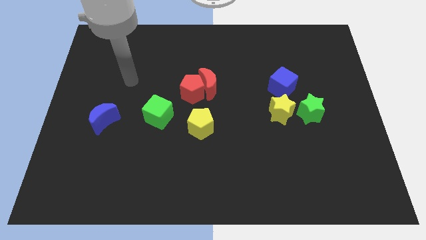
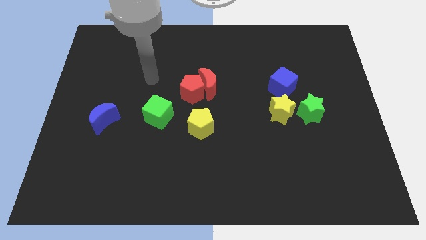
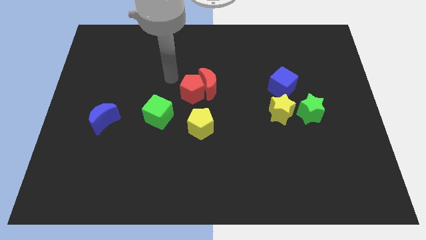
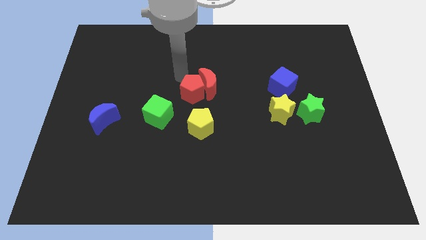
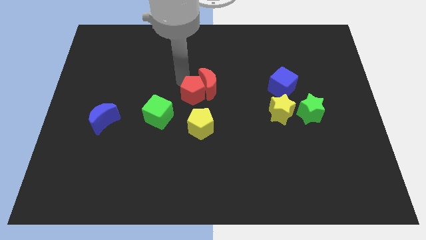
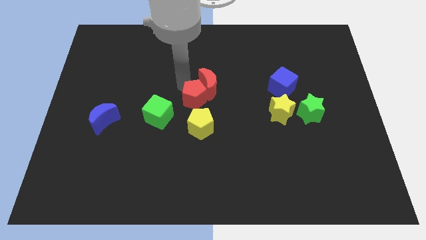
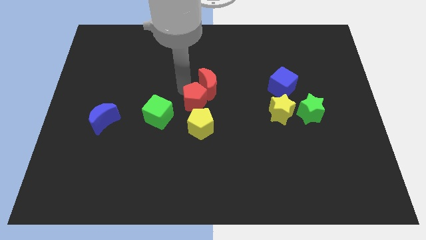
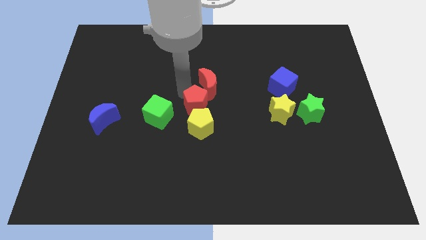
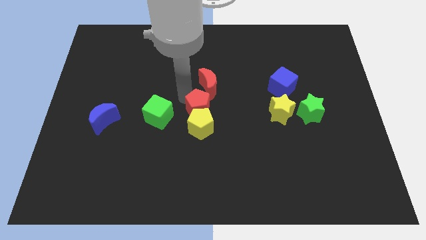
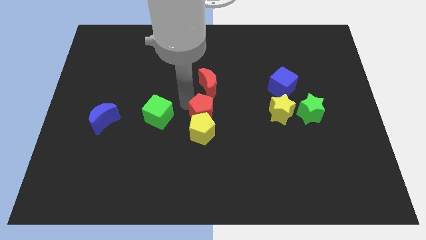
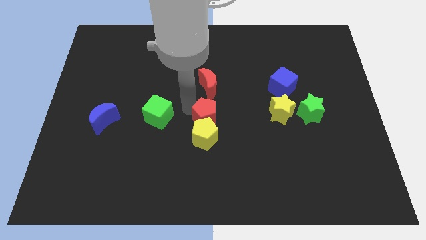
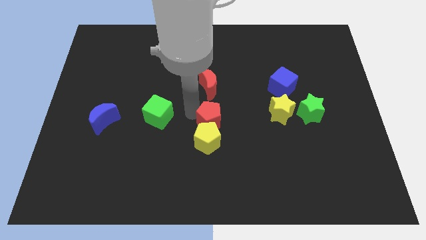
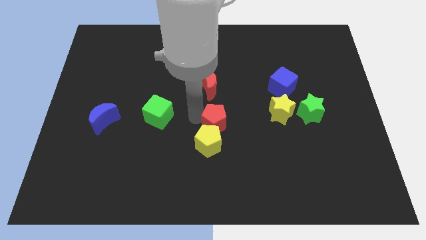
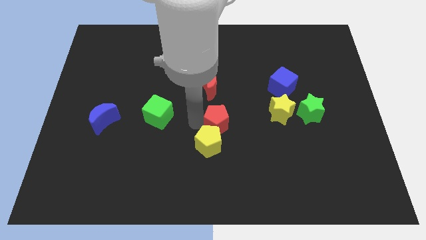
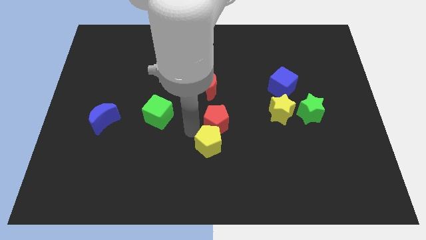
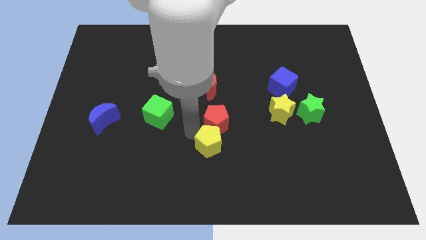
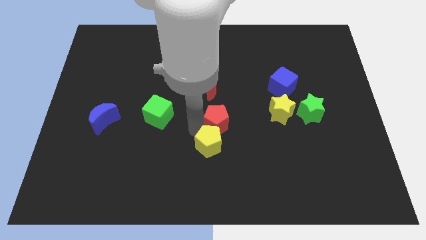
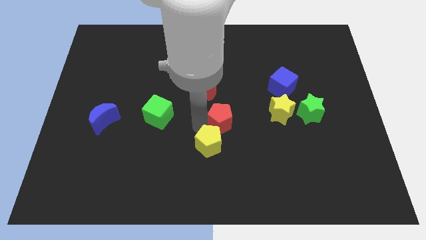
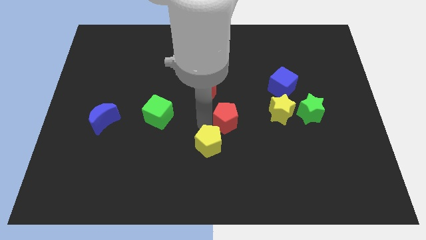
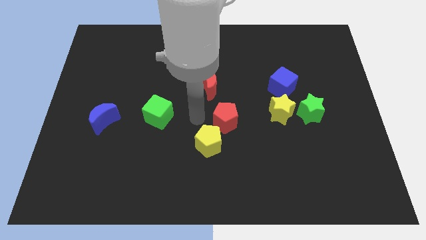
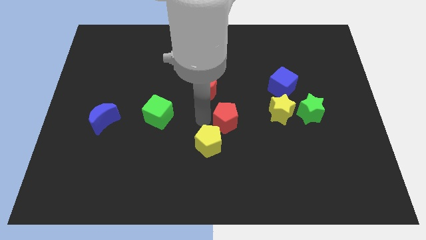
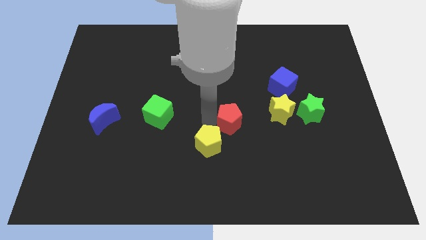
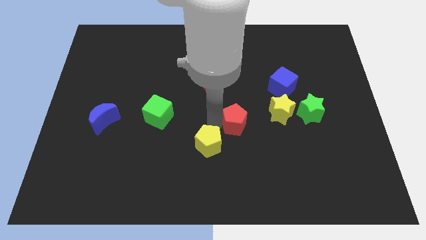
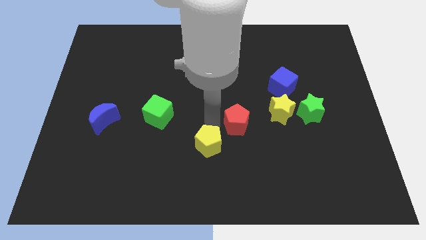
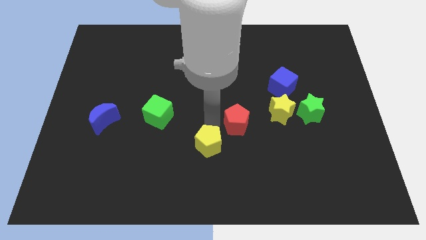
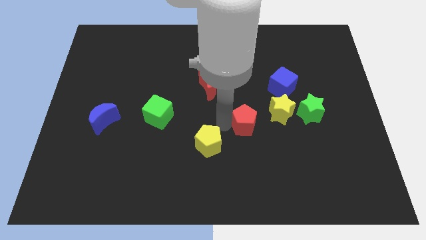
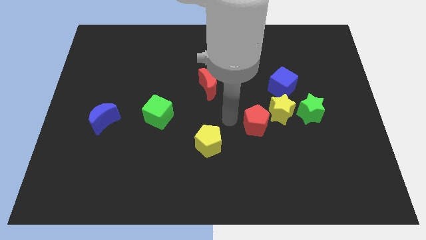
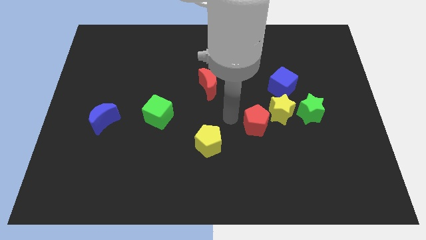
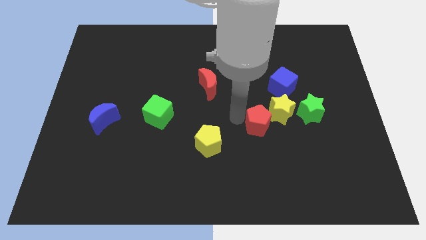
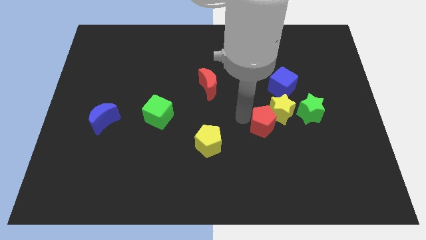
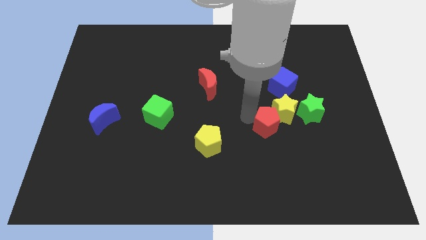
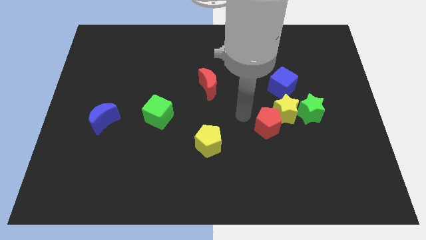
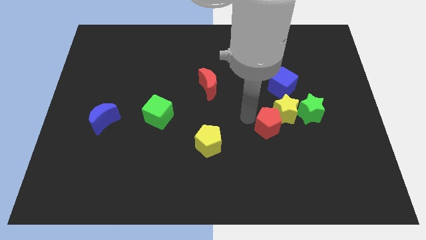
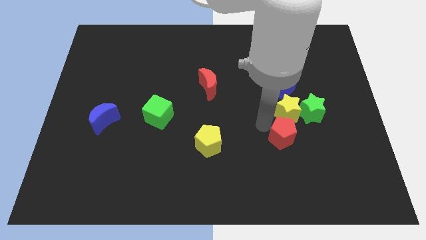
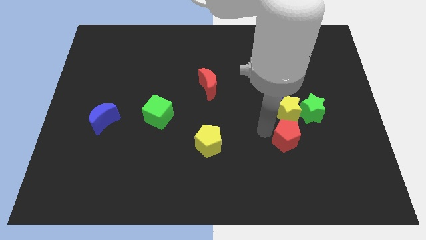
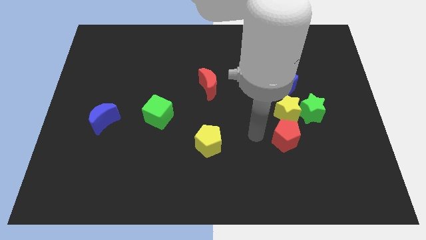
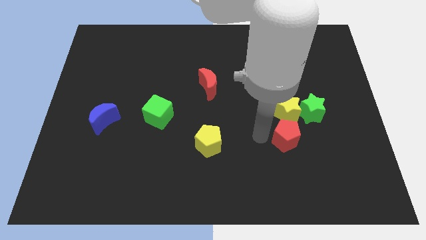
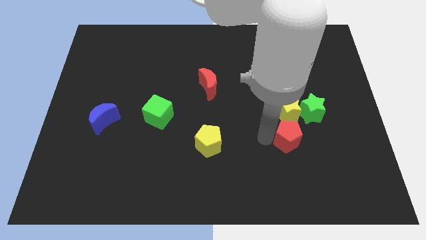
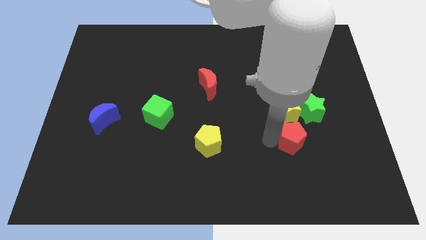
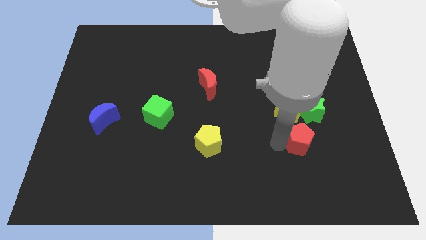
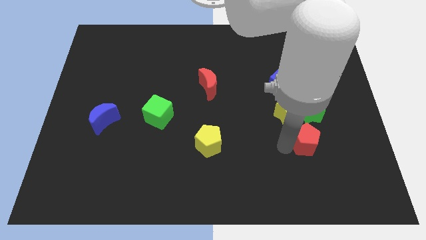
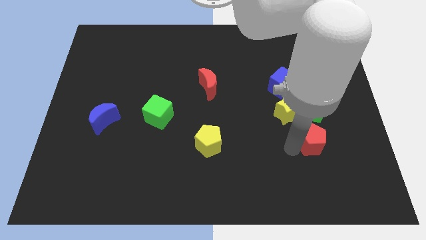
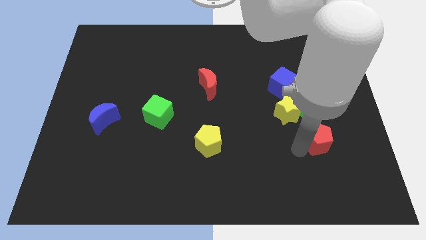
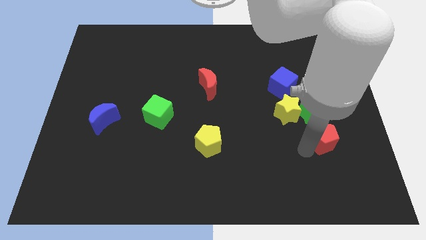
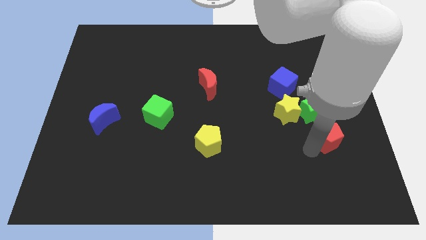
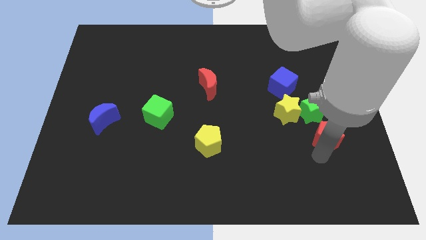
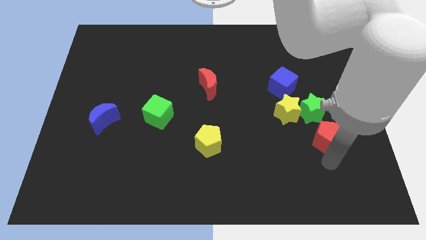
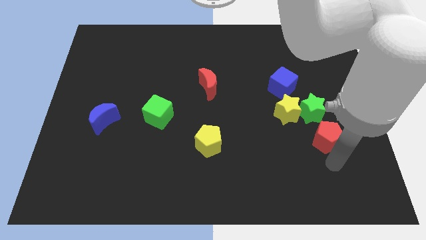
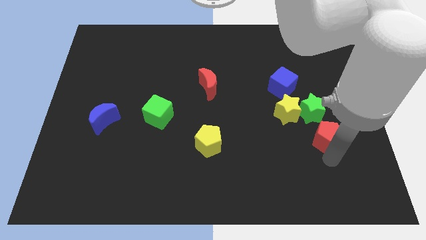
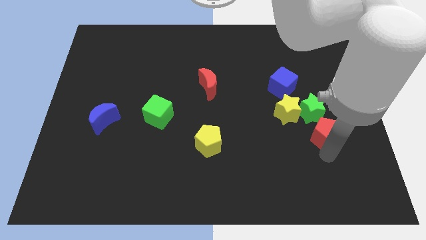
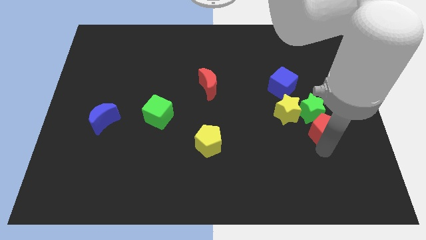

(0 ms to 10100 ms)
push the red pentagon to the green star

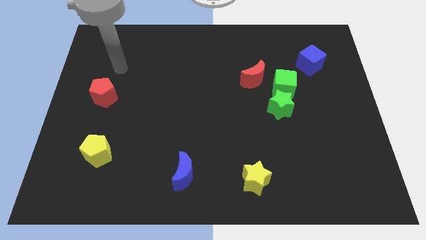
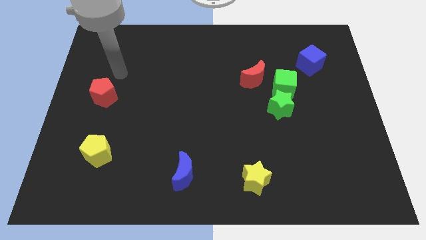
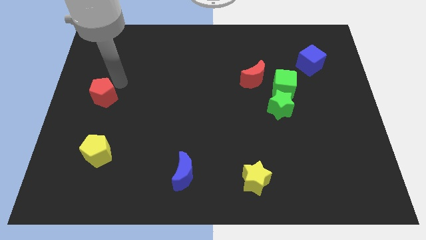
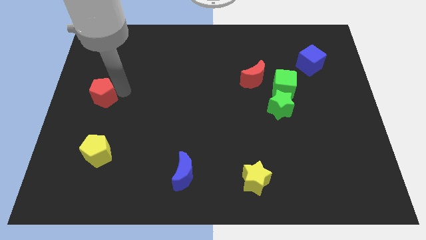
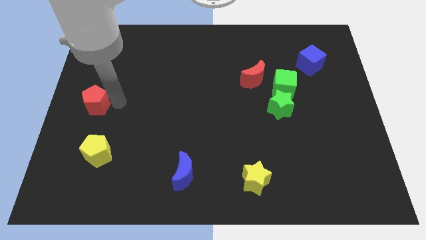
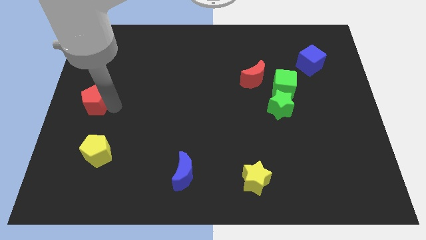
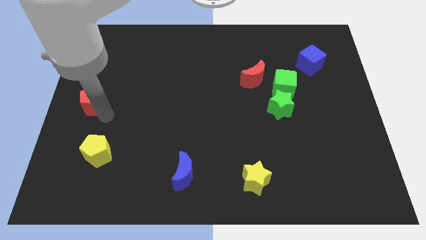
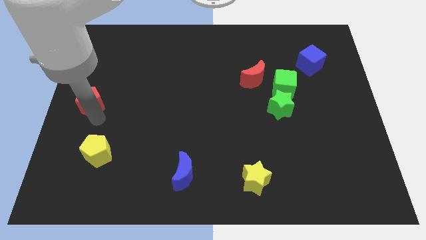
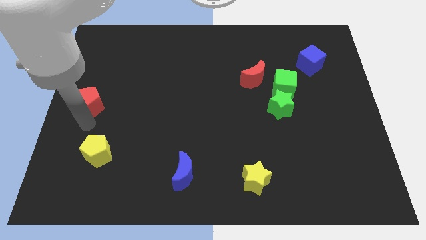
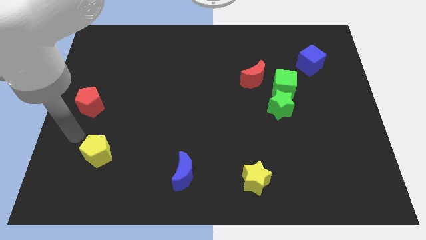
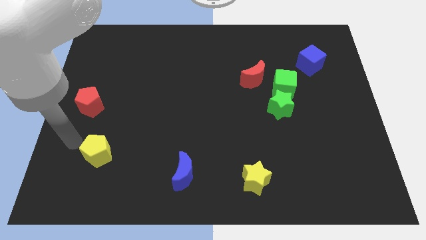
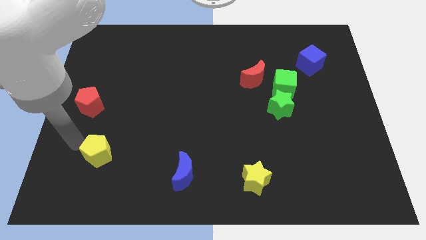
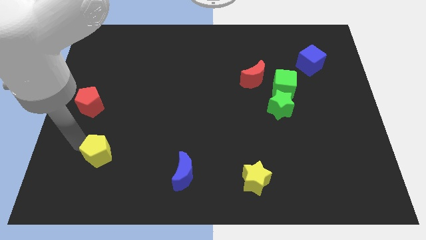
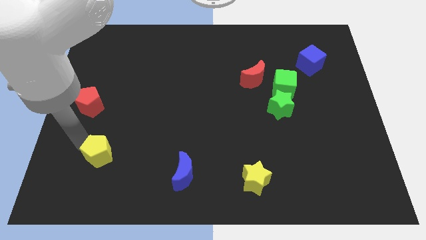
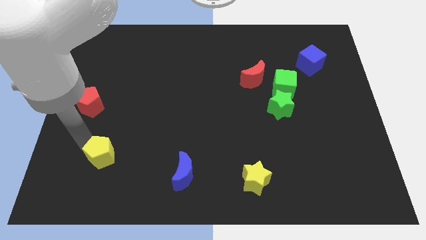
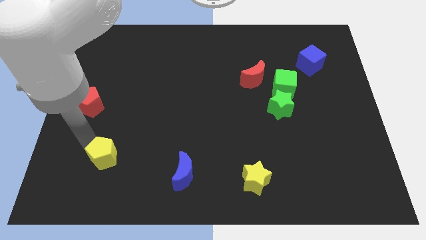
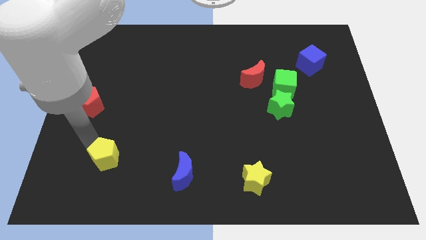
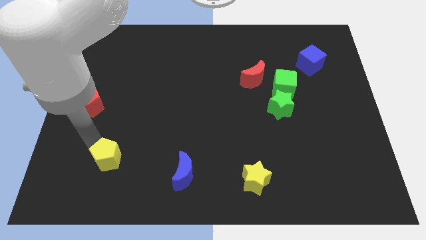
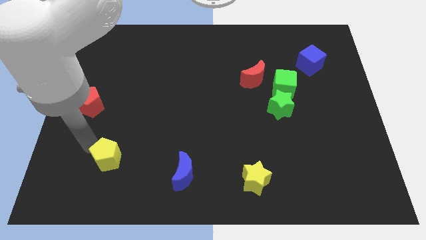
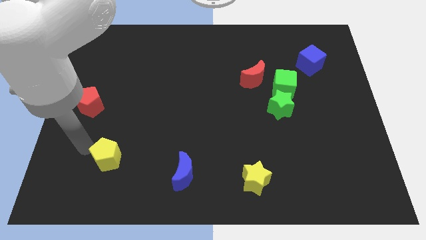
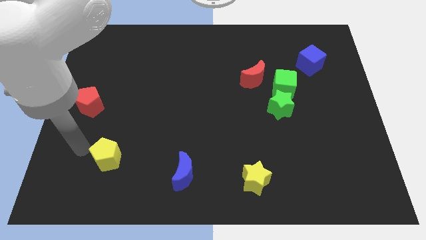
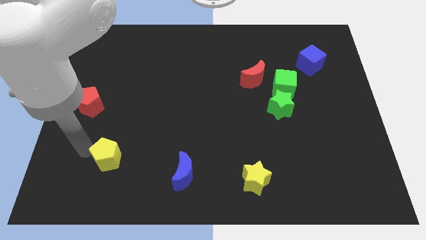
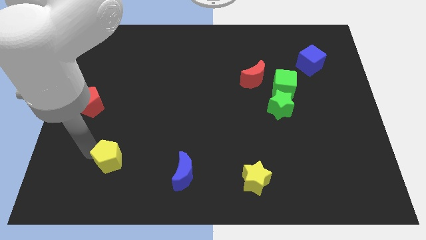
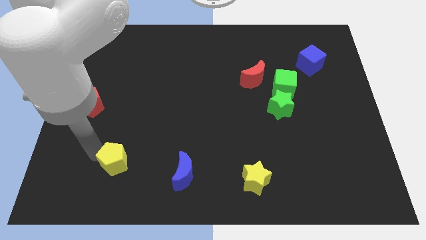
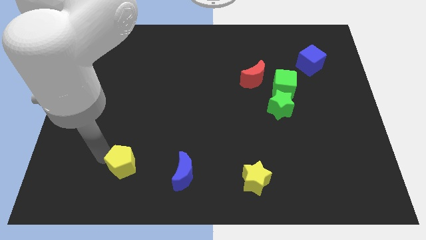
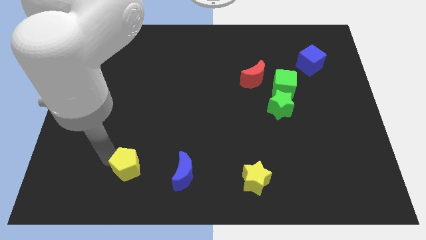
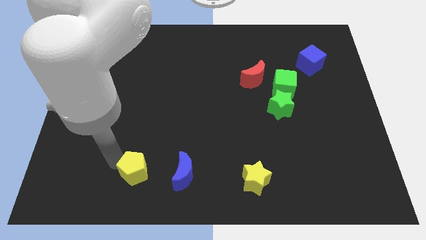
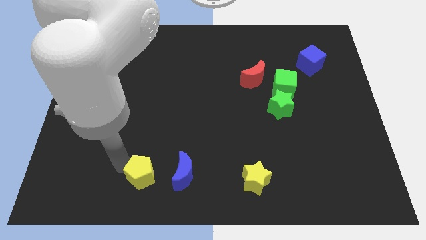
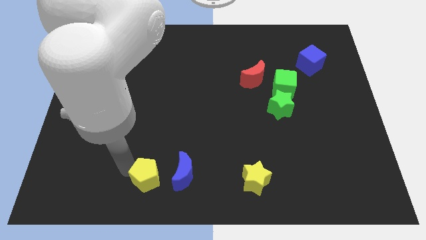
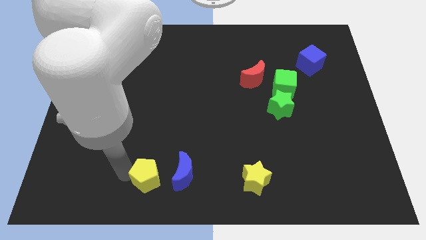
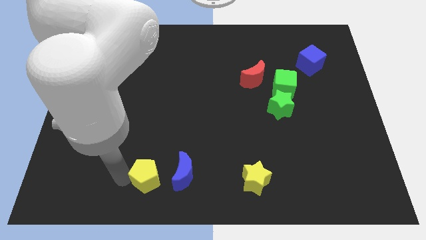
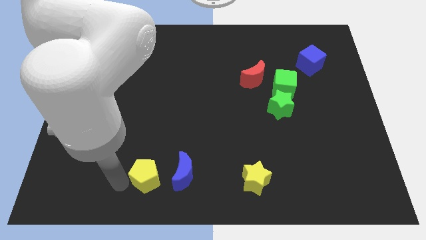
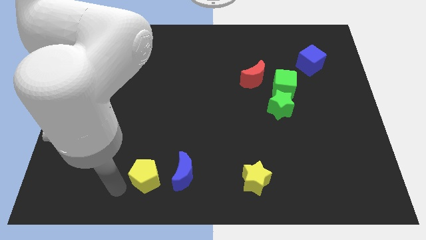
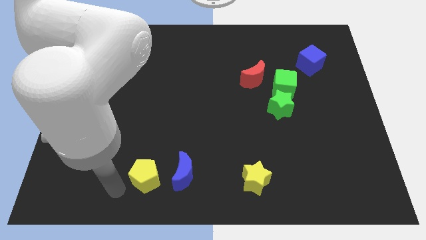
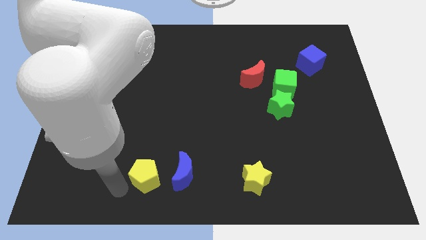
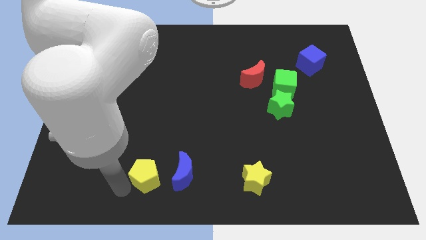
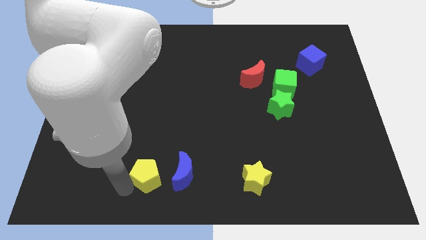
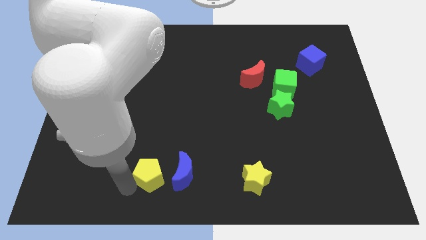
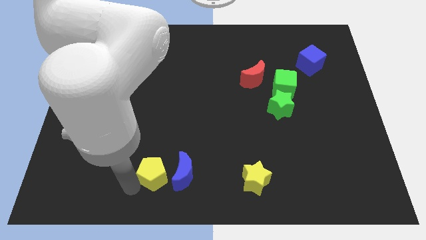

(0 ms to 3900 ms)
move the yellow pentagon close to the blue moon
